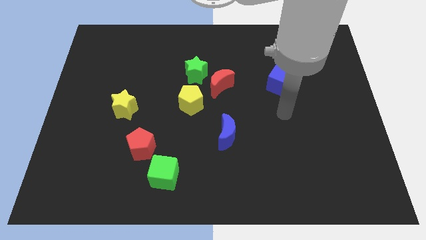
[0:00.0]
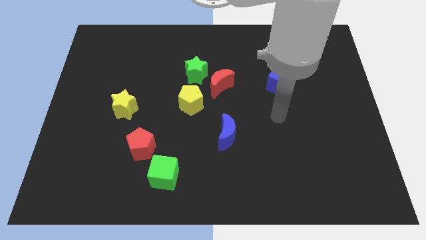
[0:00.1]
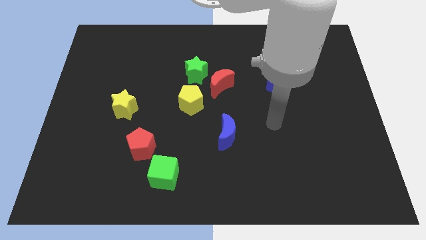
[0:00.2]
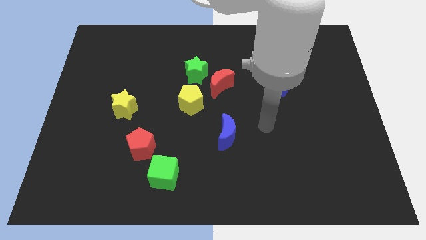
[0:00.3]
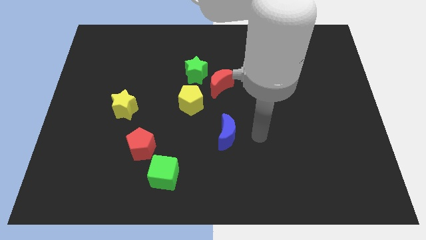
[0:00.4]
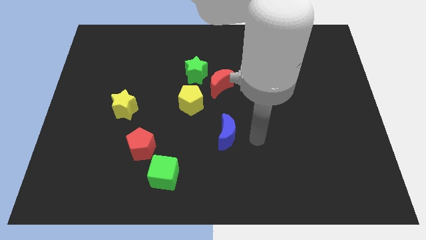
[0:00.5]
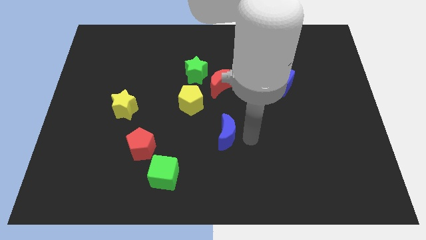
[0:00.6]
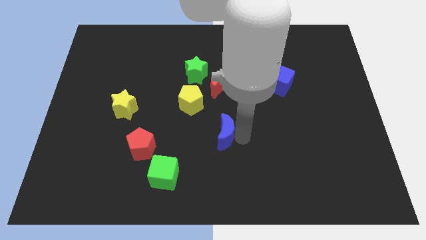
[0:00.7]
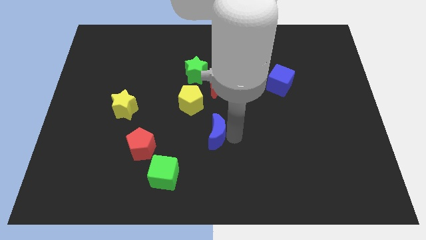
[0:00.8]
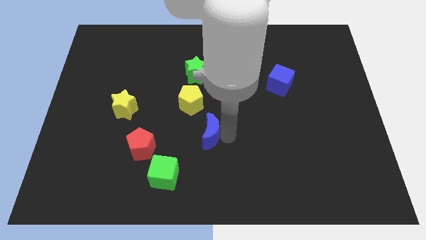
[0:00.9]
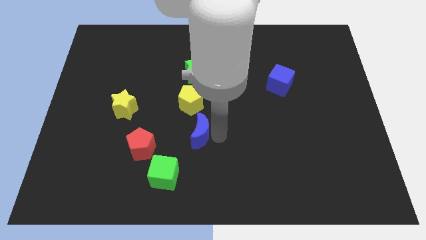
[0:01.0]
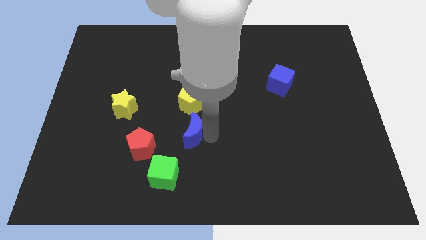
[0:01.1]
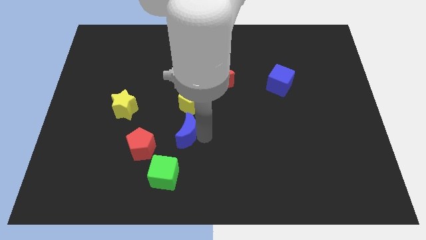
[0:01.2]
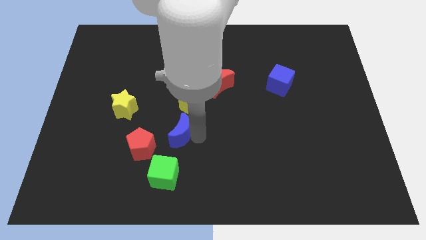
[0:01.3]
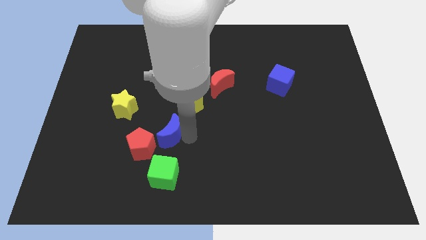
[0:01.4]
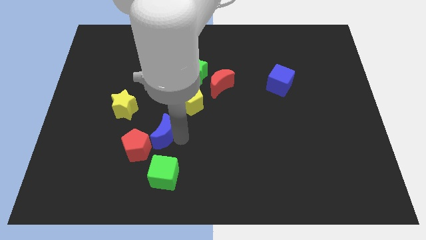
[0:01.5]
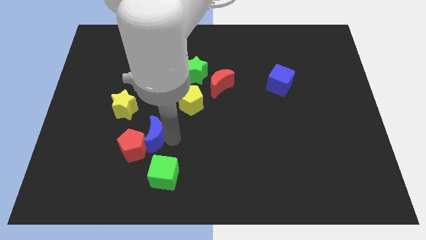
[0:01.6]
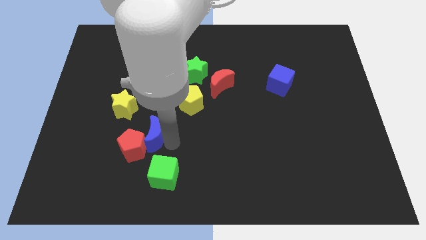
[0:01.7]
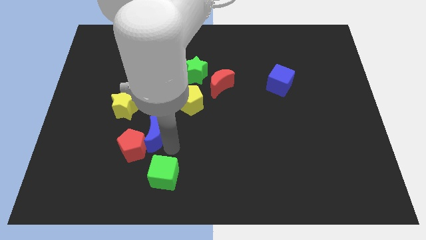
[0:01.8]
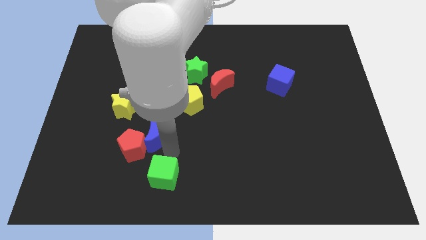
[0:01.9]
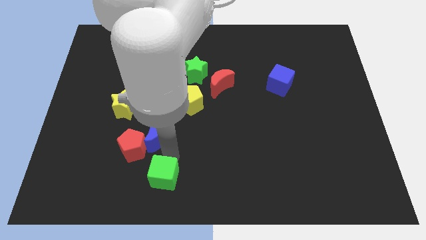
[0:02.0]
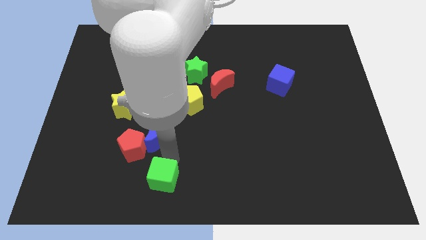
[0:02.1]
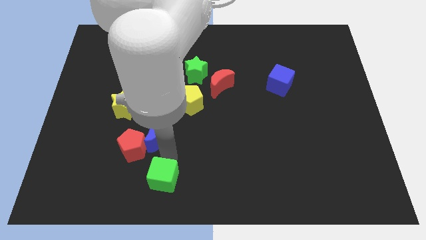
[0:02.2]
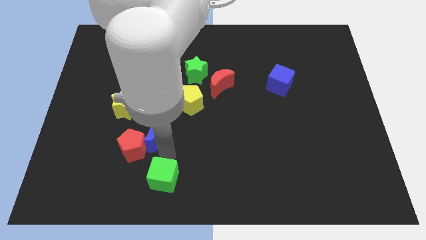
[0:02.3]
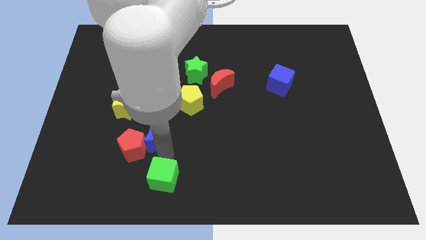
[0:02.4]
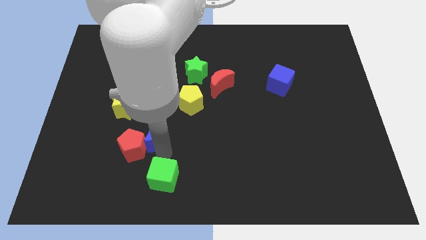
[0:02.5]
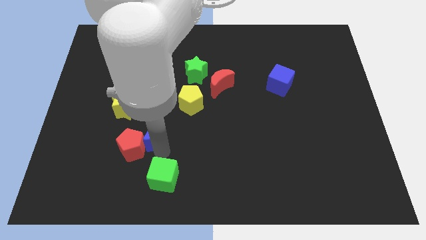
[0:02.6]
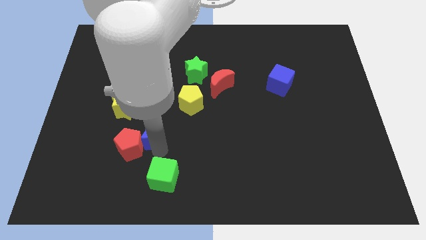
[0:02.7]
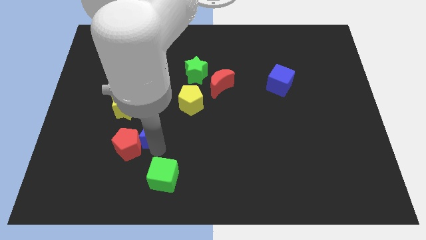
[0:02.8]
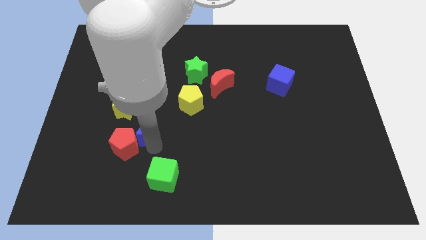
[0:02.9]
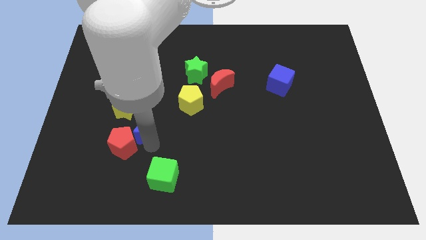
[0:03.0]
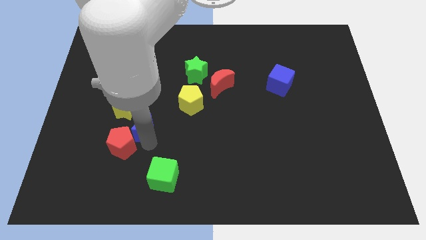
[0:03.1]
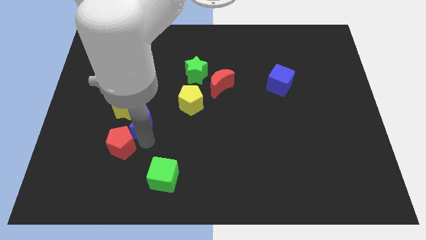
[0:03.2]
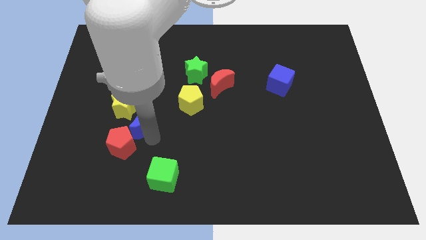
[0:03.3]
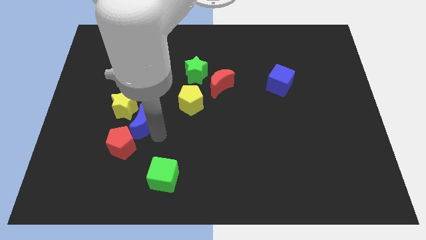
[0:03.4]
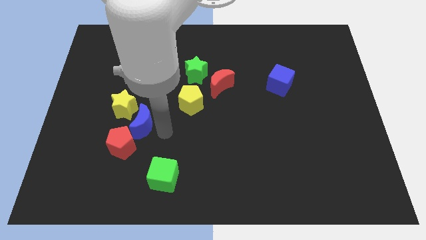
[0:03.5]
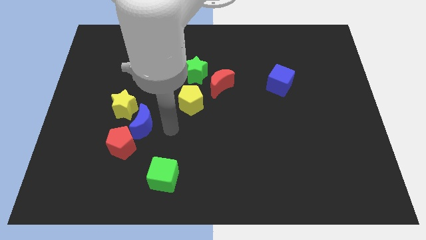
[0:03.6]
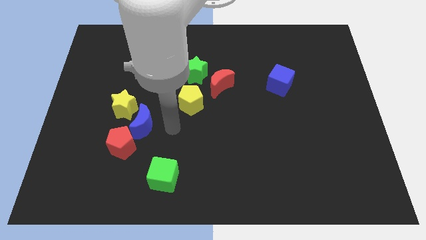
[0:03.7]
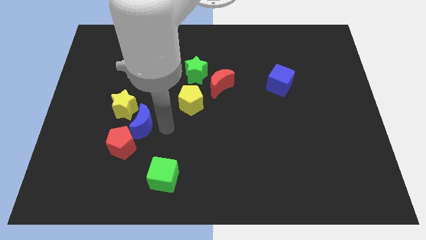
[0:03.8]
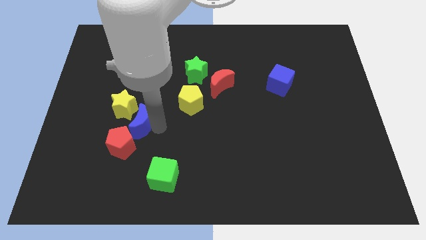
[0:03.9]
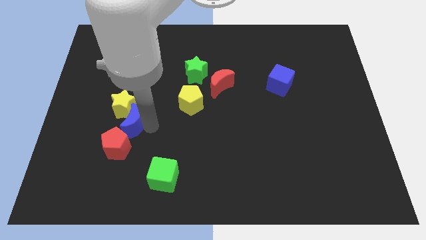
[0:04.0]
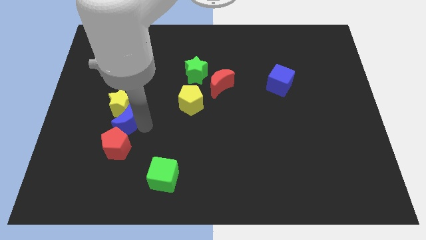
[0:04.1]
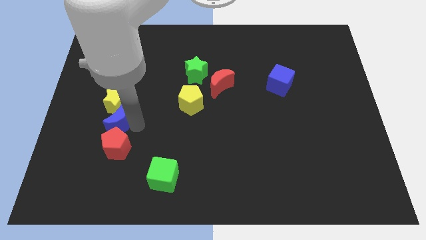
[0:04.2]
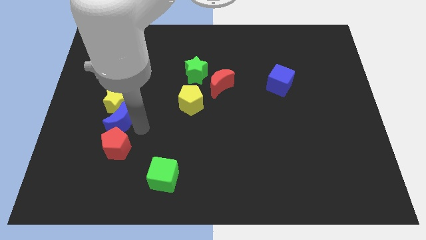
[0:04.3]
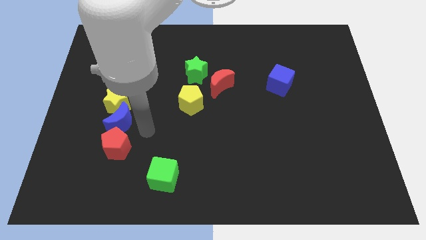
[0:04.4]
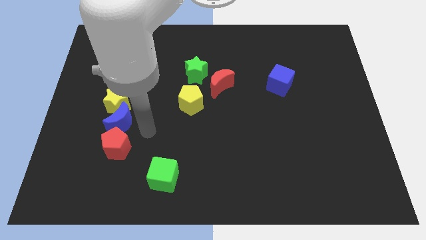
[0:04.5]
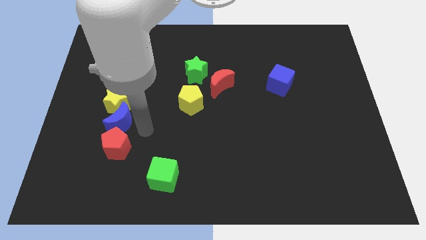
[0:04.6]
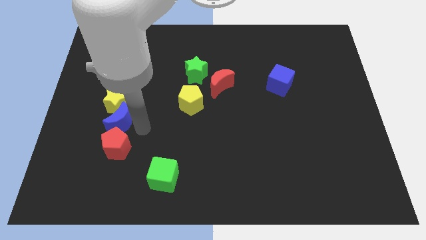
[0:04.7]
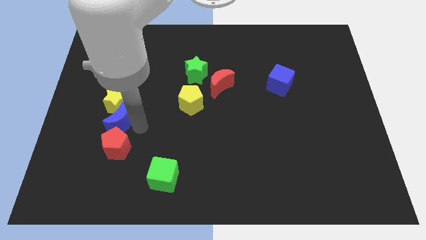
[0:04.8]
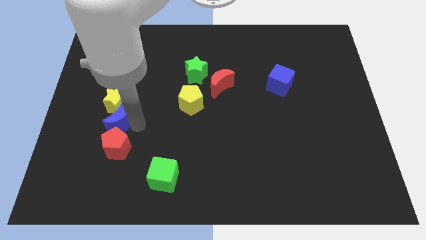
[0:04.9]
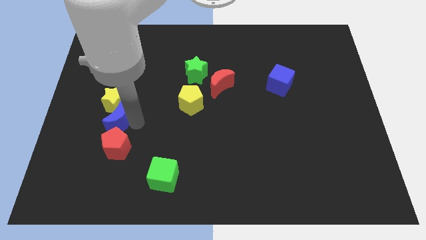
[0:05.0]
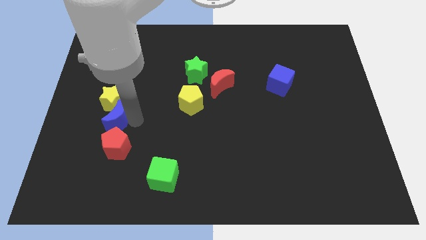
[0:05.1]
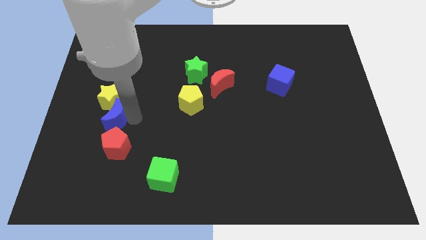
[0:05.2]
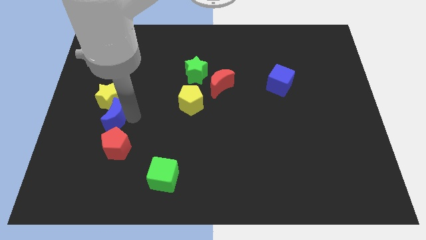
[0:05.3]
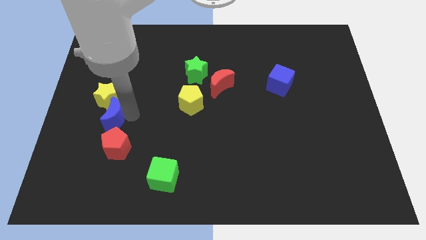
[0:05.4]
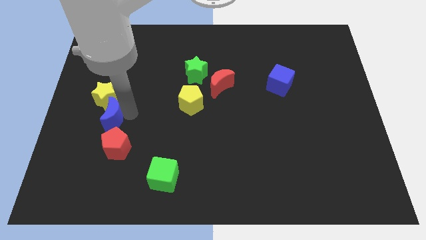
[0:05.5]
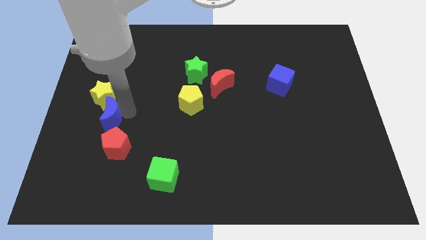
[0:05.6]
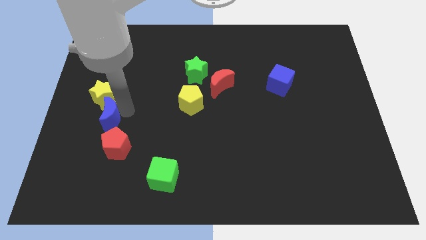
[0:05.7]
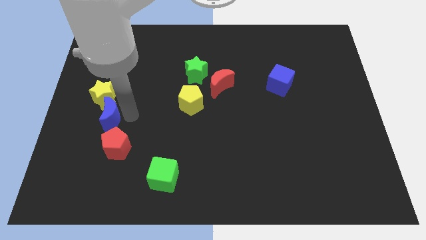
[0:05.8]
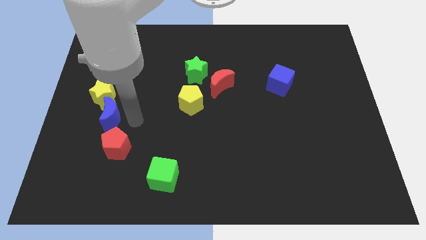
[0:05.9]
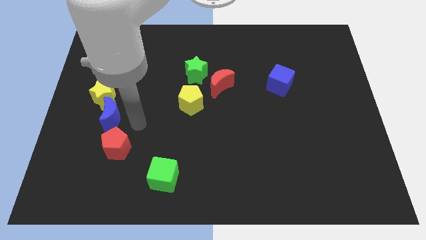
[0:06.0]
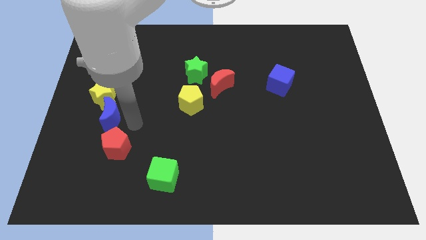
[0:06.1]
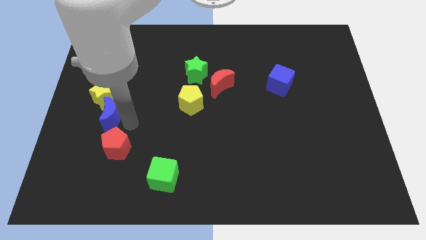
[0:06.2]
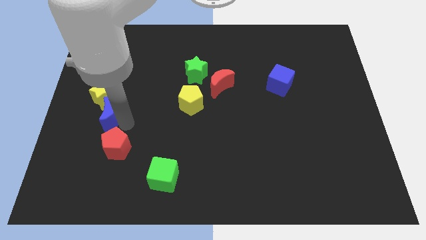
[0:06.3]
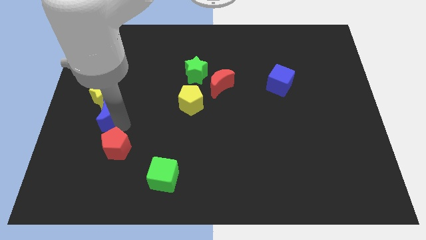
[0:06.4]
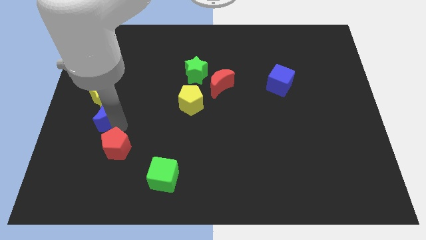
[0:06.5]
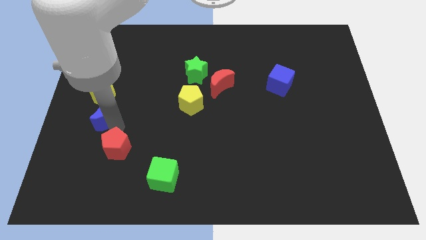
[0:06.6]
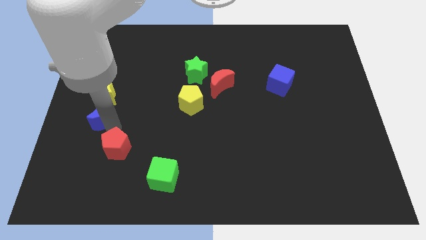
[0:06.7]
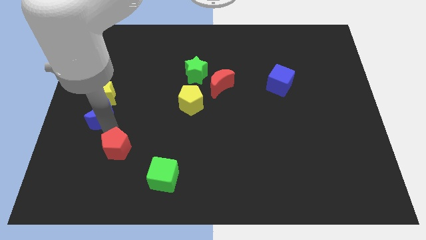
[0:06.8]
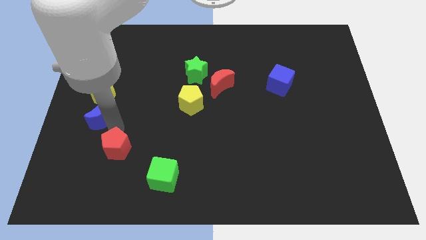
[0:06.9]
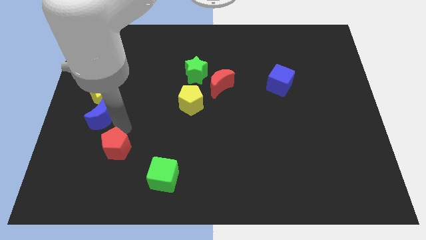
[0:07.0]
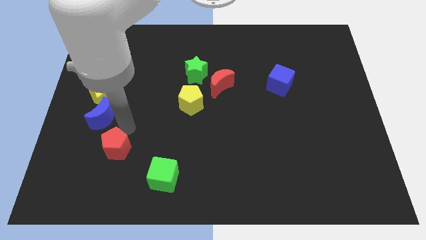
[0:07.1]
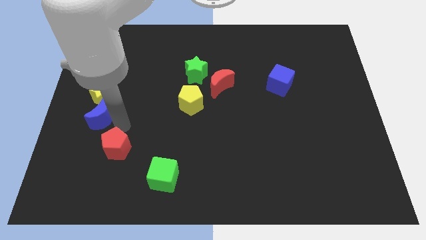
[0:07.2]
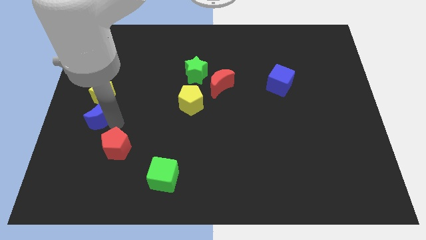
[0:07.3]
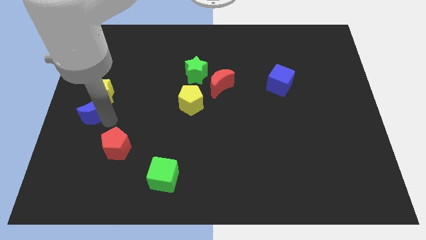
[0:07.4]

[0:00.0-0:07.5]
push the blue moon to the center left
